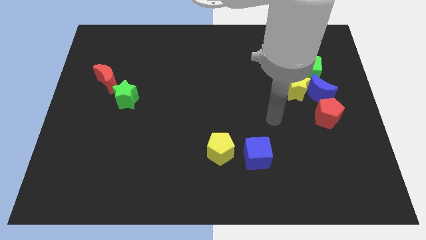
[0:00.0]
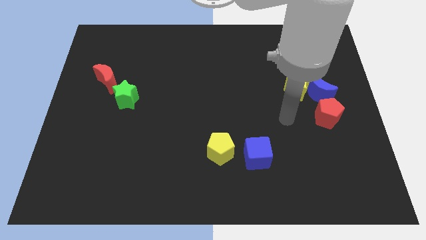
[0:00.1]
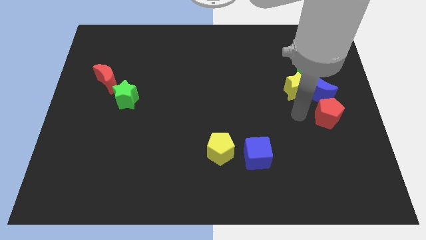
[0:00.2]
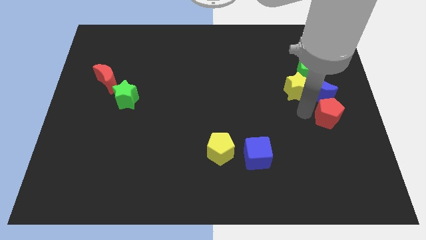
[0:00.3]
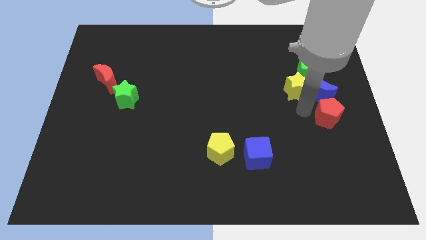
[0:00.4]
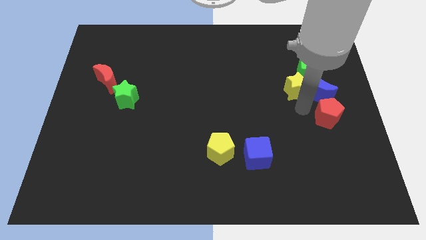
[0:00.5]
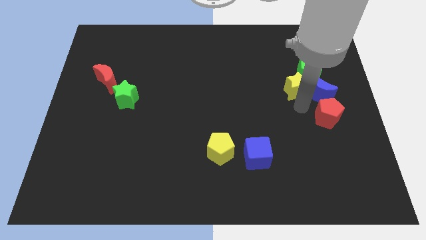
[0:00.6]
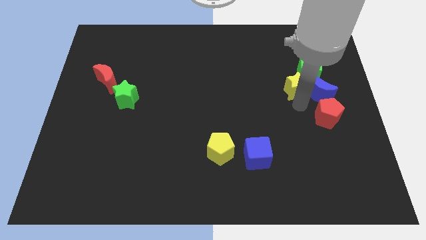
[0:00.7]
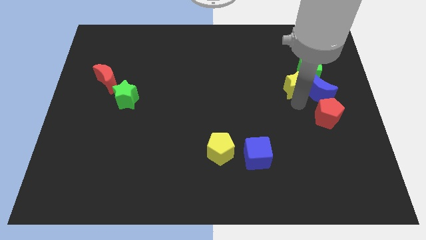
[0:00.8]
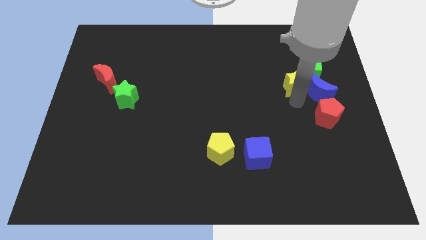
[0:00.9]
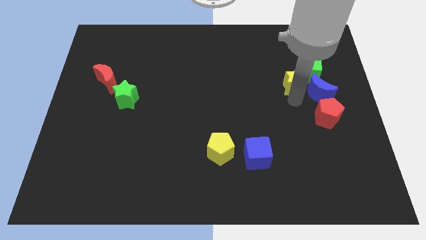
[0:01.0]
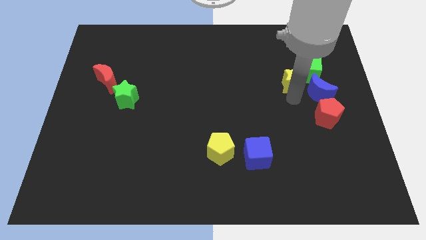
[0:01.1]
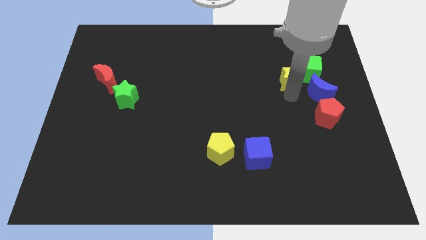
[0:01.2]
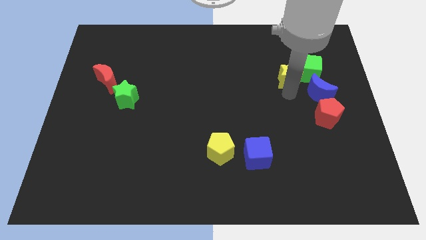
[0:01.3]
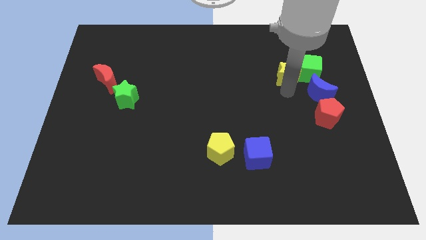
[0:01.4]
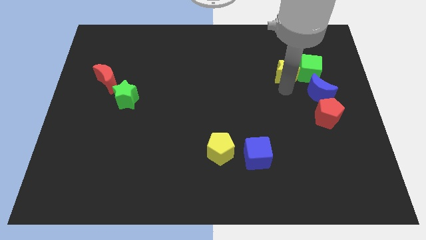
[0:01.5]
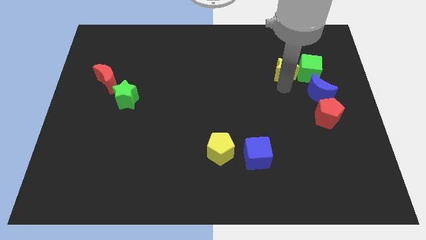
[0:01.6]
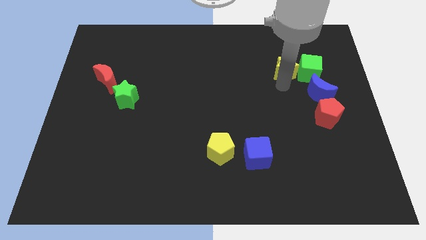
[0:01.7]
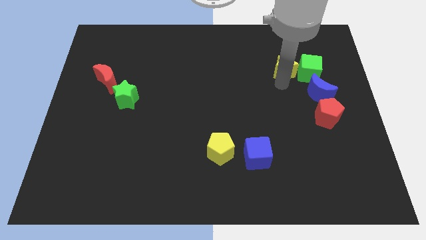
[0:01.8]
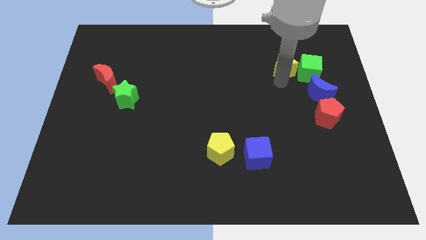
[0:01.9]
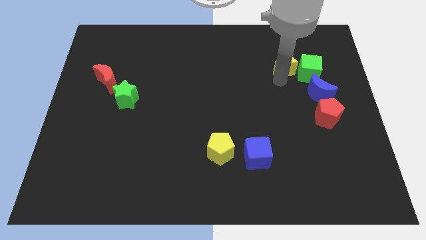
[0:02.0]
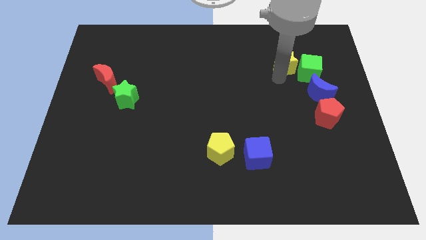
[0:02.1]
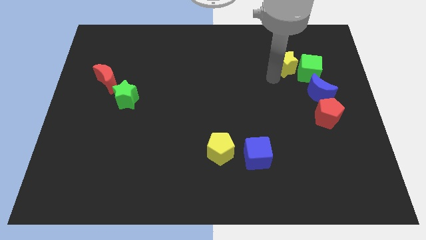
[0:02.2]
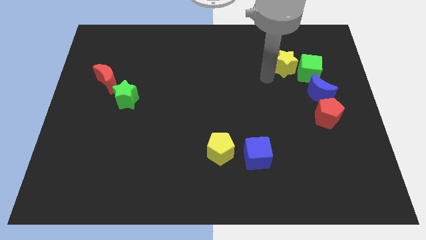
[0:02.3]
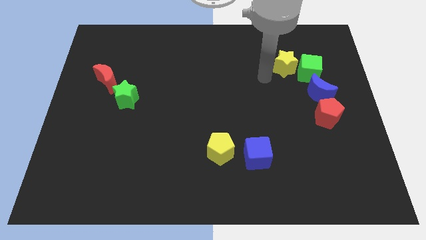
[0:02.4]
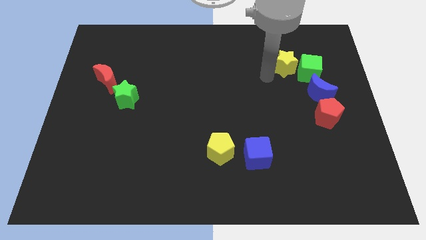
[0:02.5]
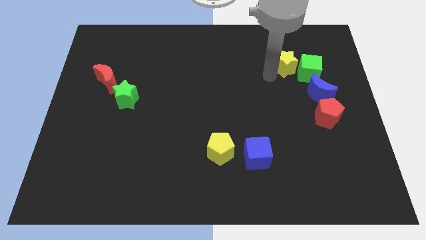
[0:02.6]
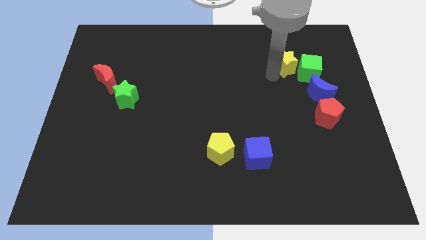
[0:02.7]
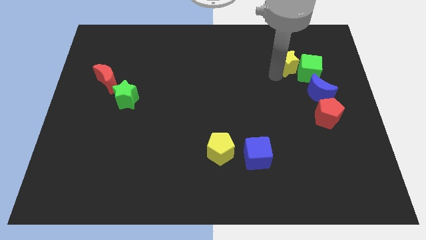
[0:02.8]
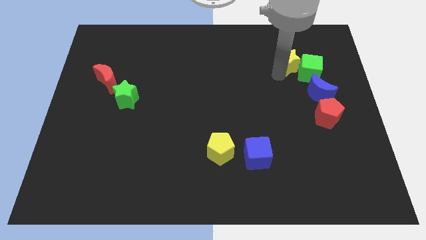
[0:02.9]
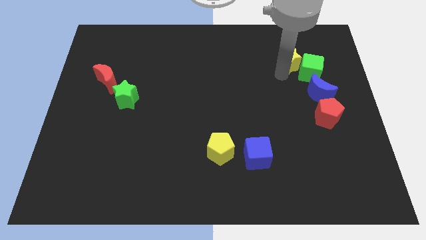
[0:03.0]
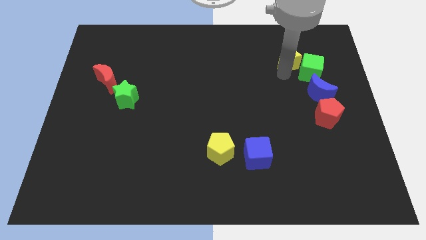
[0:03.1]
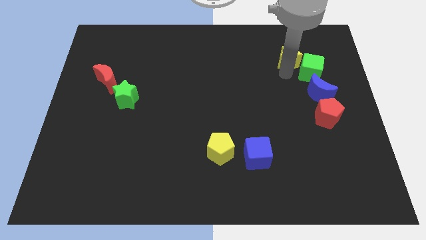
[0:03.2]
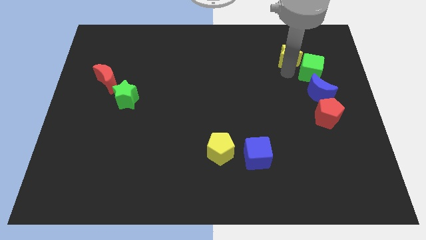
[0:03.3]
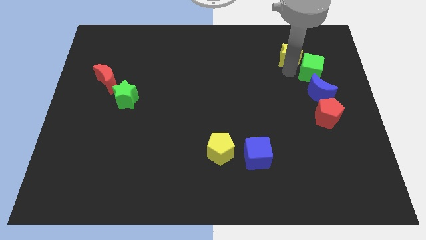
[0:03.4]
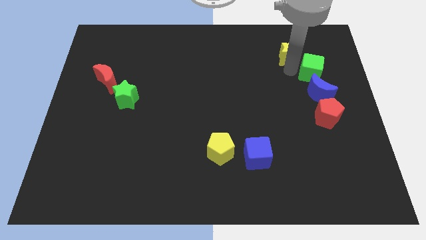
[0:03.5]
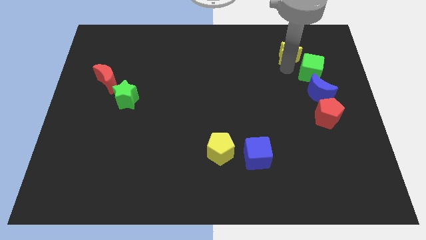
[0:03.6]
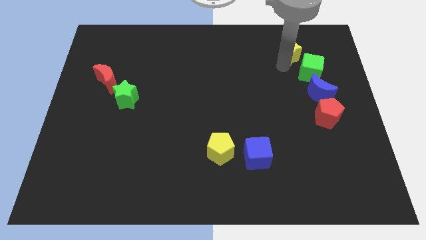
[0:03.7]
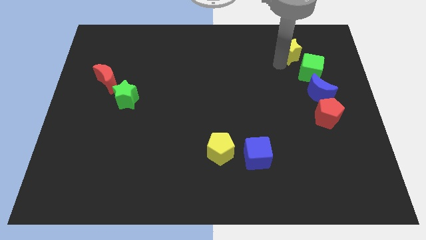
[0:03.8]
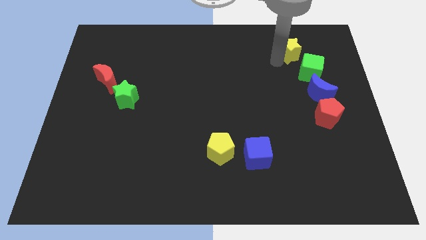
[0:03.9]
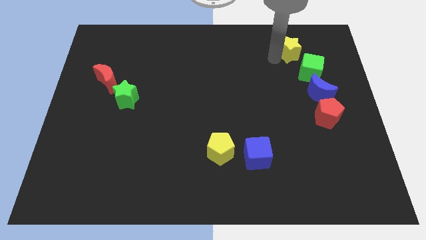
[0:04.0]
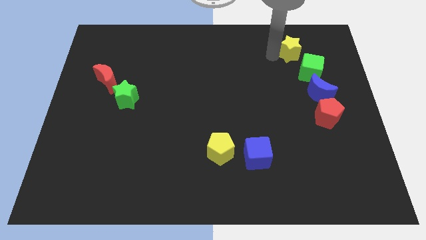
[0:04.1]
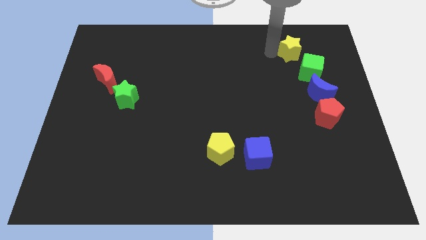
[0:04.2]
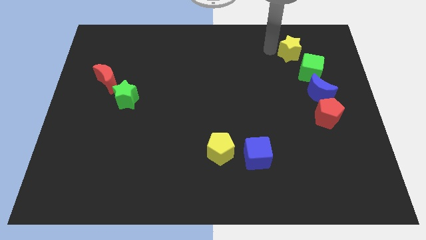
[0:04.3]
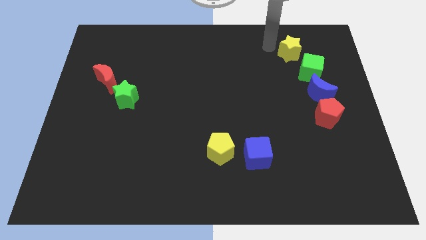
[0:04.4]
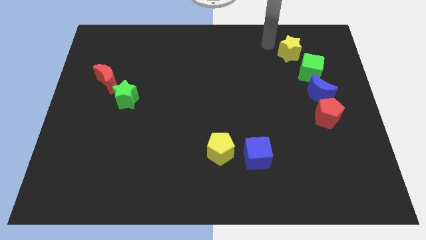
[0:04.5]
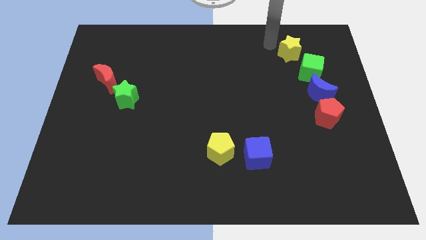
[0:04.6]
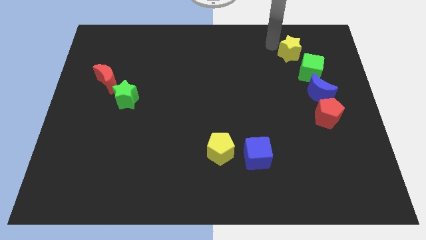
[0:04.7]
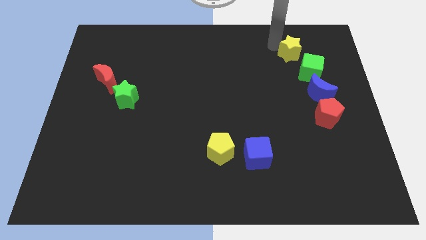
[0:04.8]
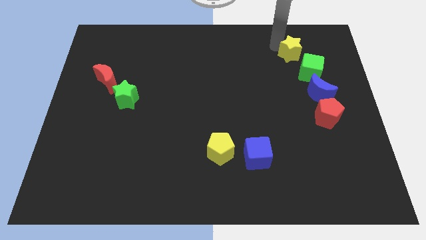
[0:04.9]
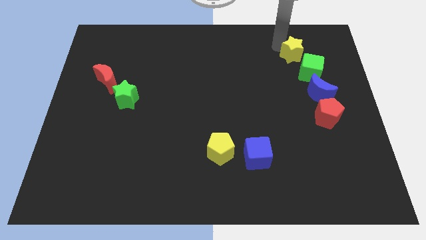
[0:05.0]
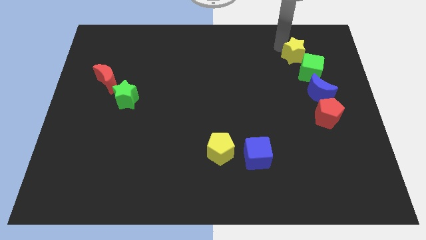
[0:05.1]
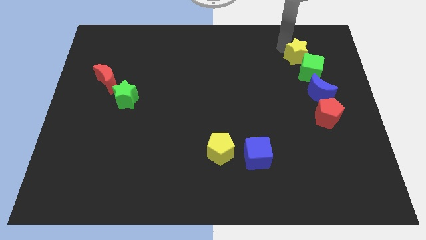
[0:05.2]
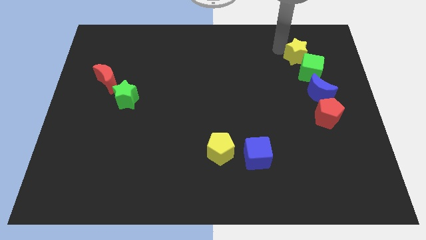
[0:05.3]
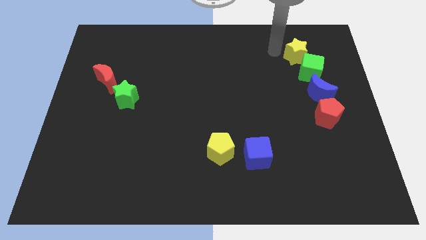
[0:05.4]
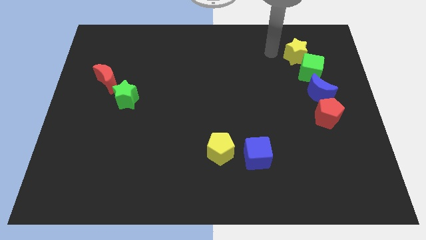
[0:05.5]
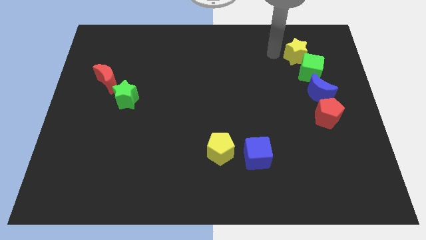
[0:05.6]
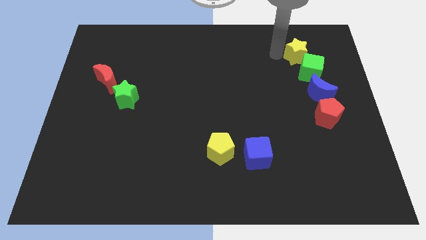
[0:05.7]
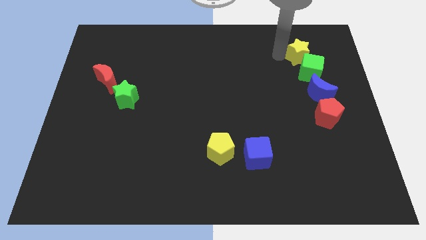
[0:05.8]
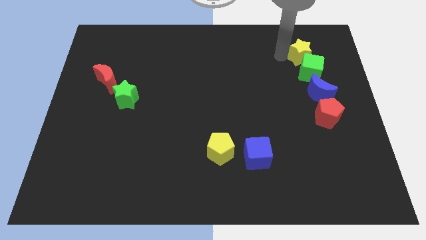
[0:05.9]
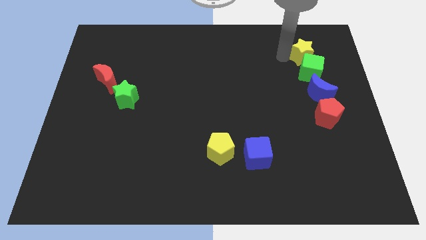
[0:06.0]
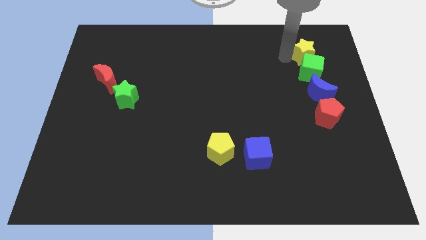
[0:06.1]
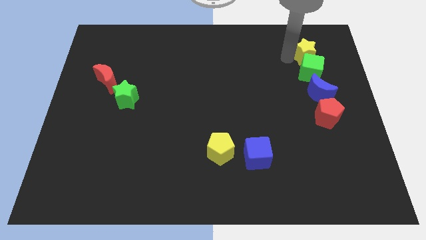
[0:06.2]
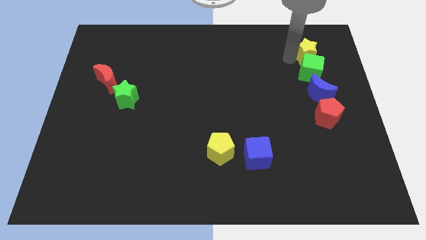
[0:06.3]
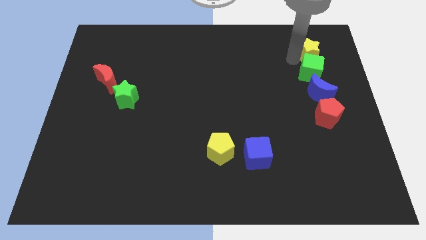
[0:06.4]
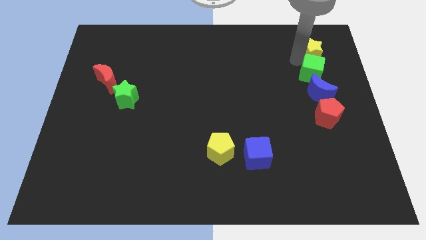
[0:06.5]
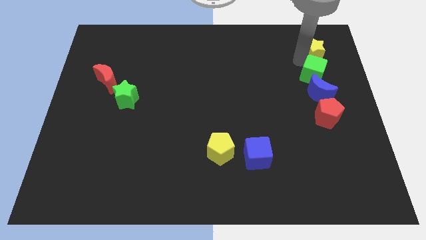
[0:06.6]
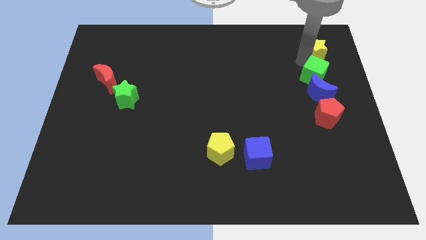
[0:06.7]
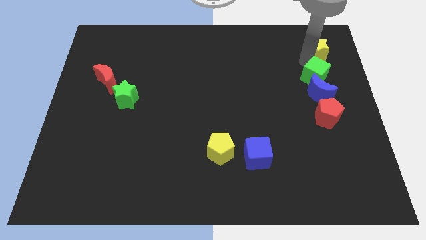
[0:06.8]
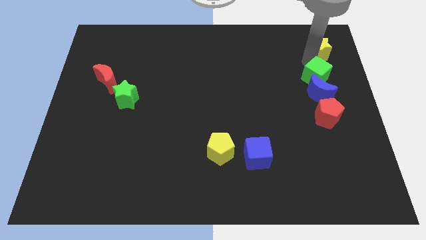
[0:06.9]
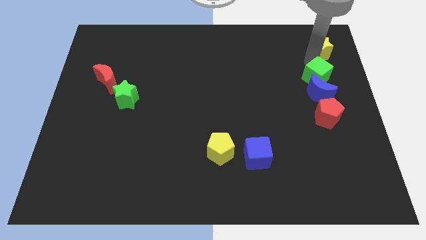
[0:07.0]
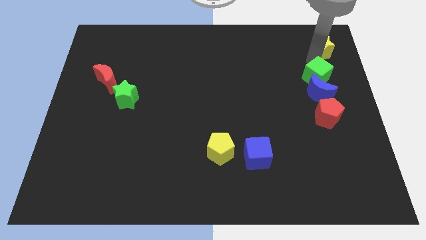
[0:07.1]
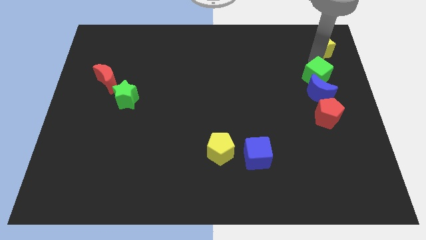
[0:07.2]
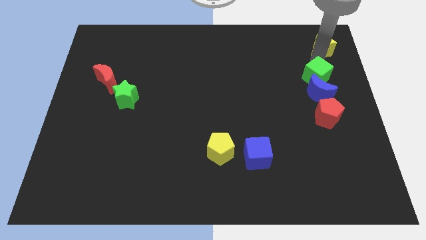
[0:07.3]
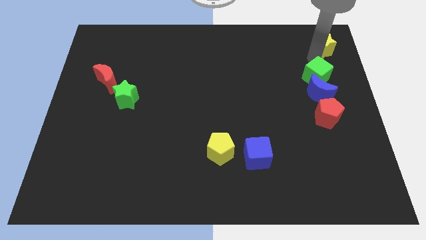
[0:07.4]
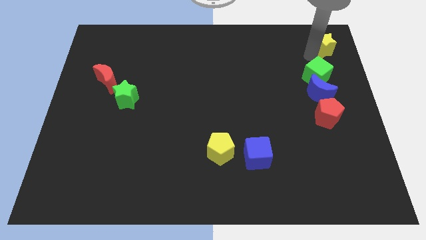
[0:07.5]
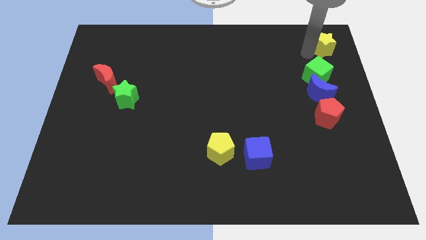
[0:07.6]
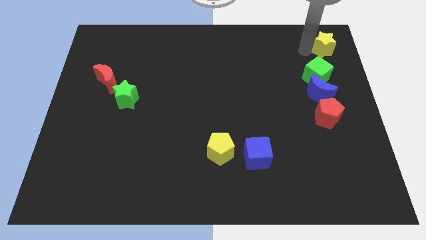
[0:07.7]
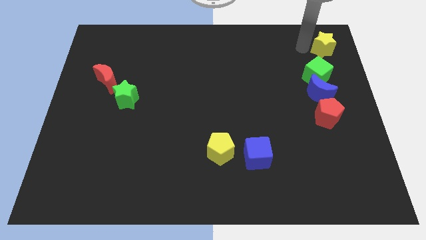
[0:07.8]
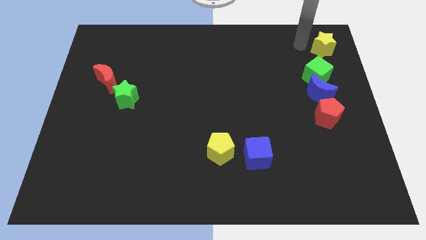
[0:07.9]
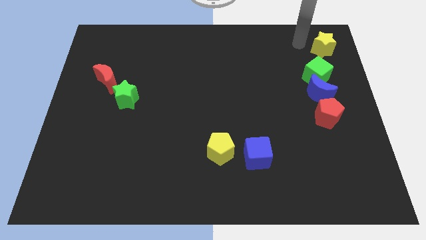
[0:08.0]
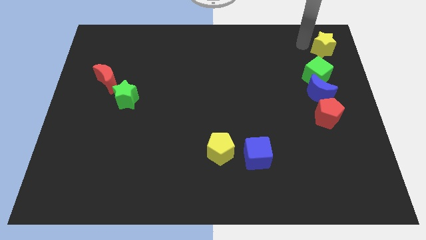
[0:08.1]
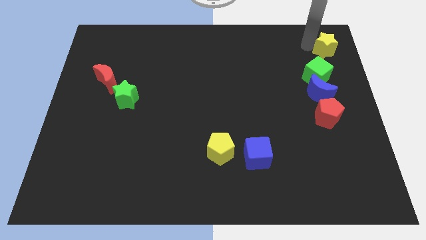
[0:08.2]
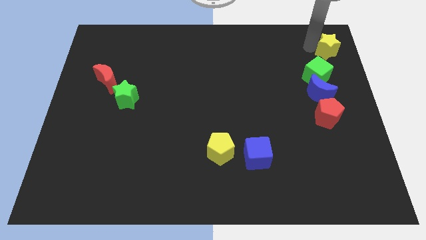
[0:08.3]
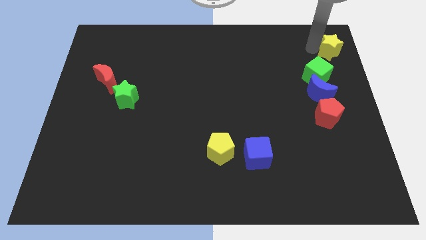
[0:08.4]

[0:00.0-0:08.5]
put the yellow star to the top right of the board
